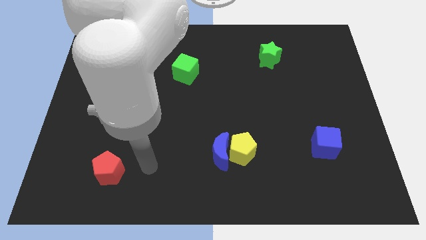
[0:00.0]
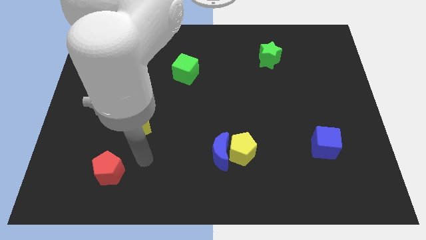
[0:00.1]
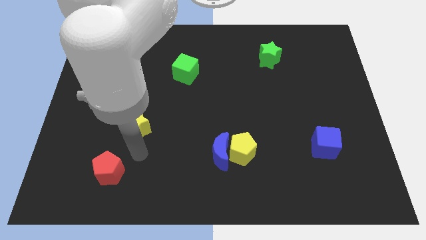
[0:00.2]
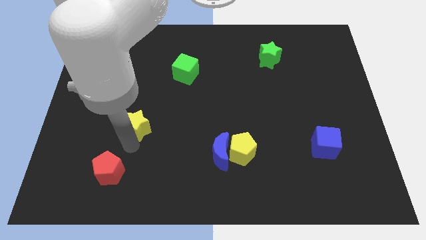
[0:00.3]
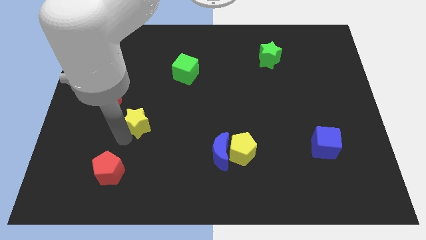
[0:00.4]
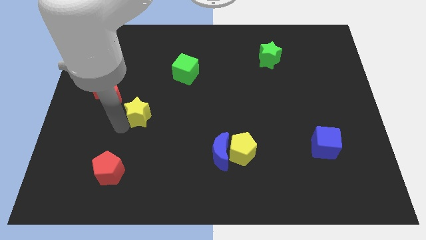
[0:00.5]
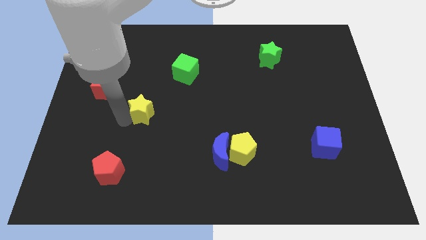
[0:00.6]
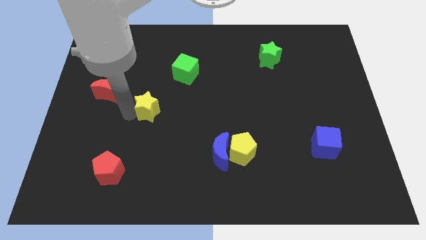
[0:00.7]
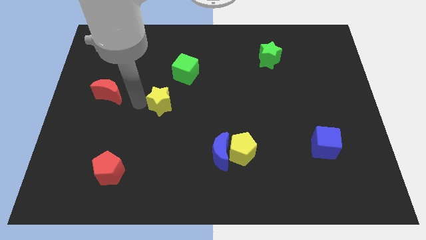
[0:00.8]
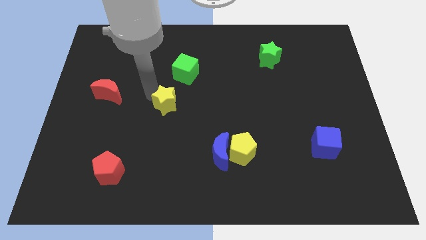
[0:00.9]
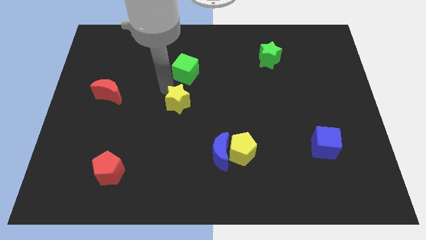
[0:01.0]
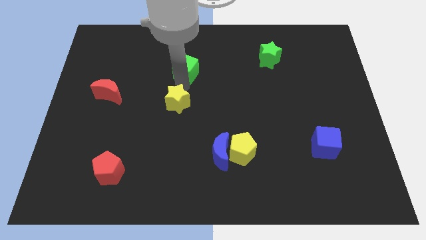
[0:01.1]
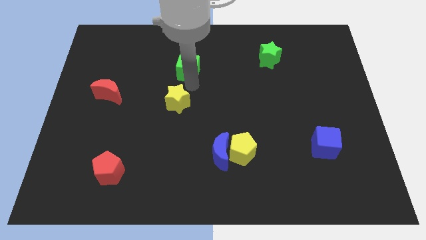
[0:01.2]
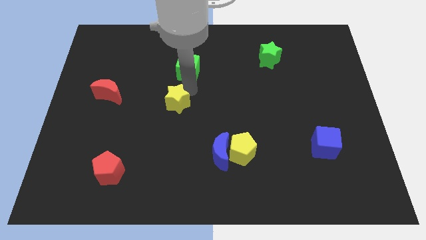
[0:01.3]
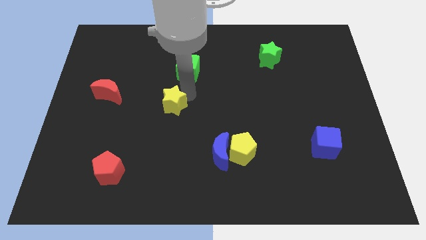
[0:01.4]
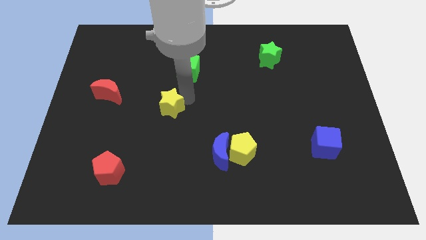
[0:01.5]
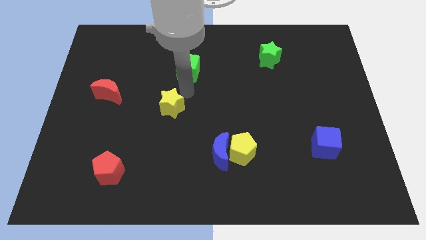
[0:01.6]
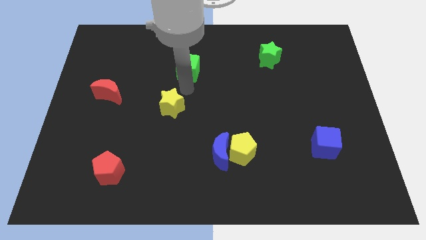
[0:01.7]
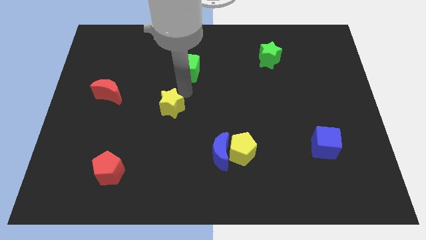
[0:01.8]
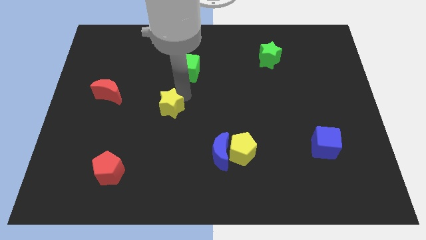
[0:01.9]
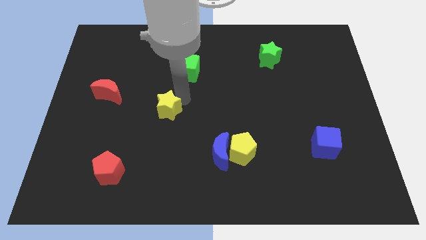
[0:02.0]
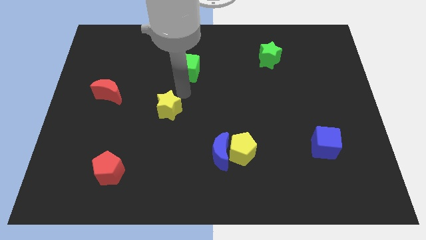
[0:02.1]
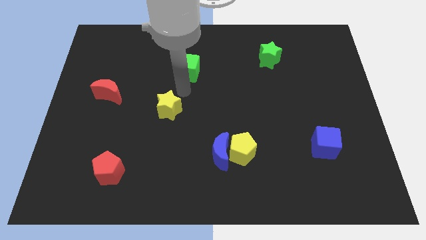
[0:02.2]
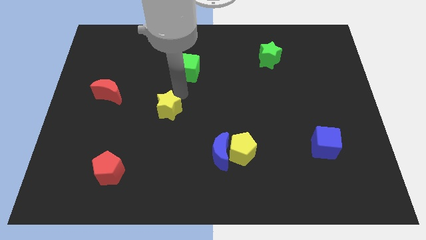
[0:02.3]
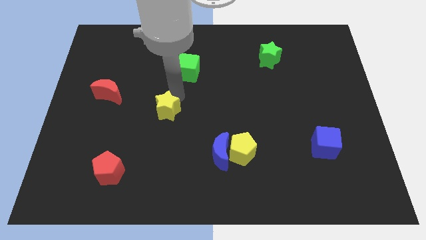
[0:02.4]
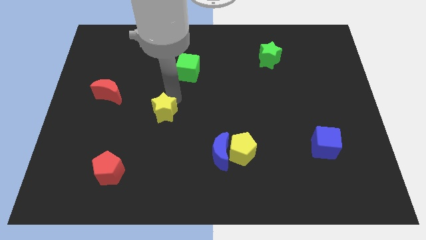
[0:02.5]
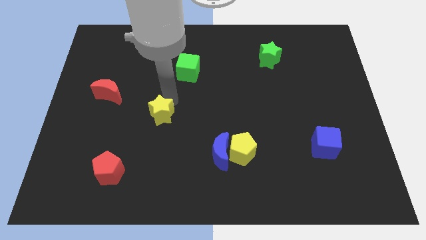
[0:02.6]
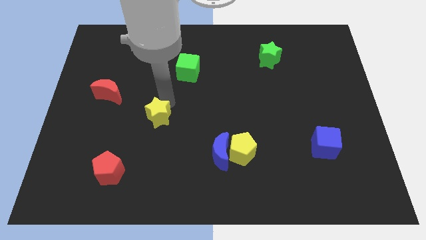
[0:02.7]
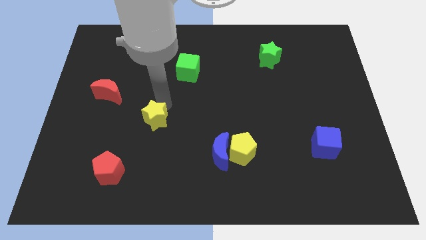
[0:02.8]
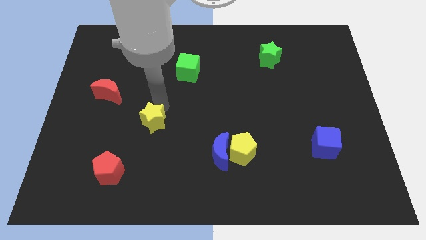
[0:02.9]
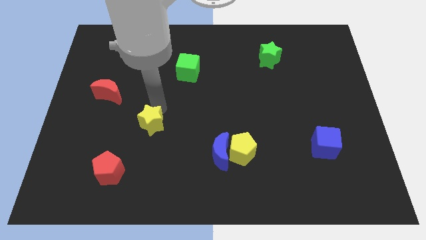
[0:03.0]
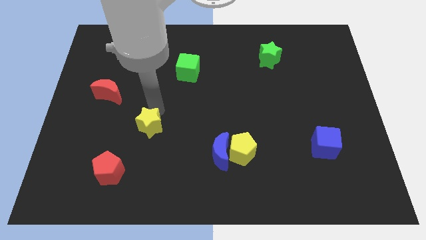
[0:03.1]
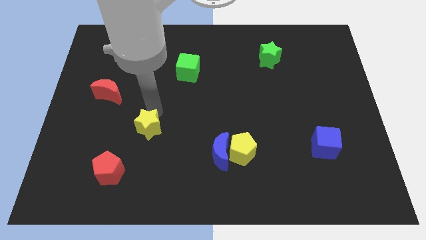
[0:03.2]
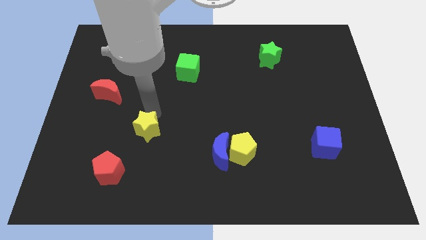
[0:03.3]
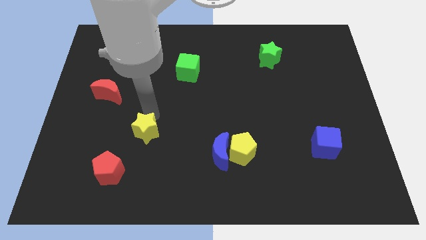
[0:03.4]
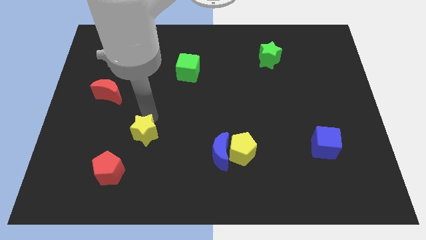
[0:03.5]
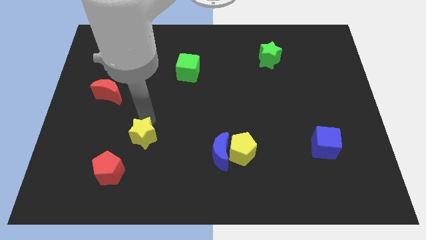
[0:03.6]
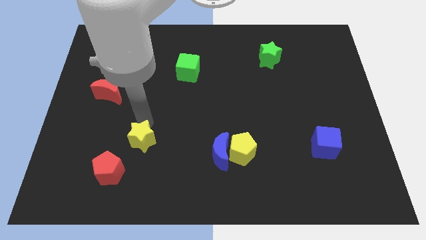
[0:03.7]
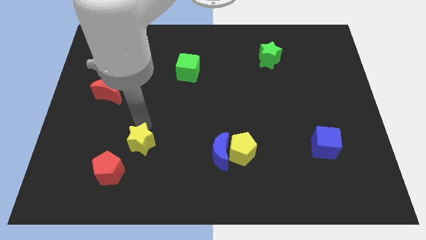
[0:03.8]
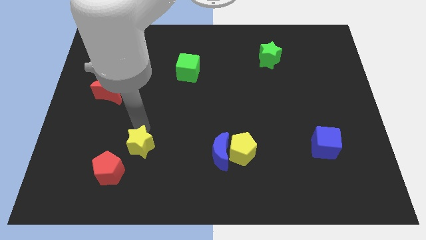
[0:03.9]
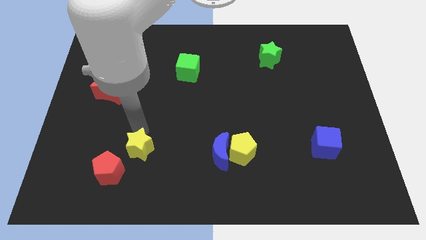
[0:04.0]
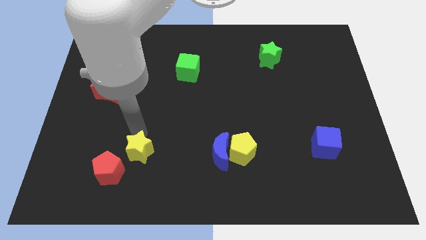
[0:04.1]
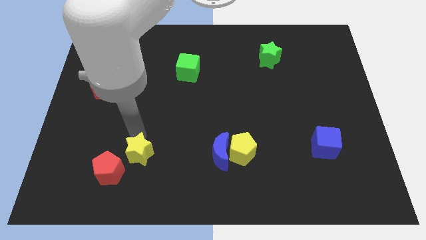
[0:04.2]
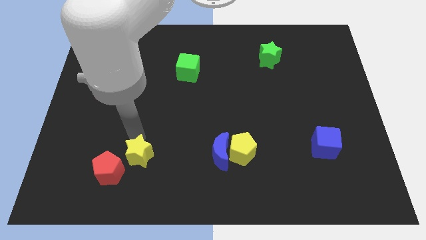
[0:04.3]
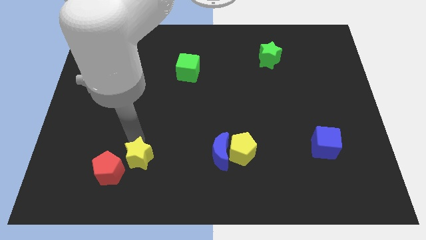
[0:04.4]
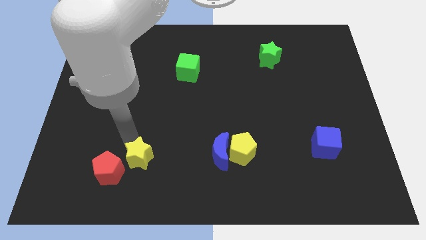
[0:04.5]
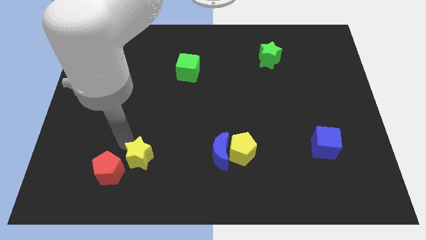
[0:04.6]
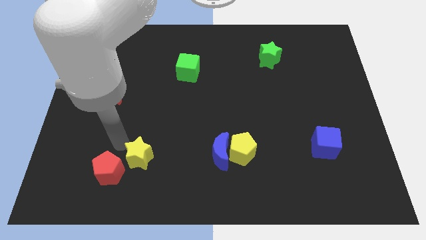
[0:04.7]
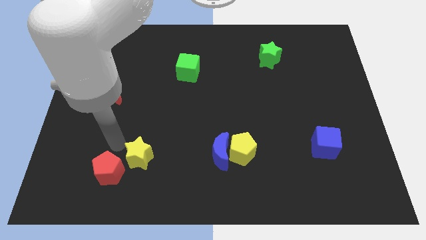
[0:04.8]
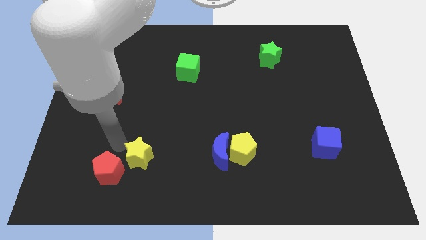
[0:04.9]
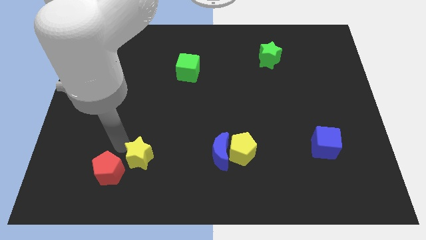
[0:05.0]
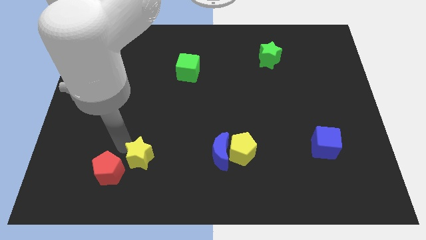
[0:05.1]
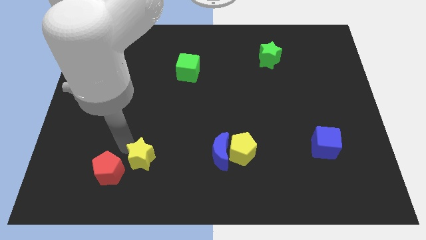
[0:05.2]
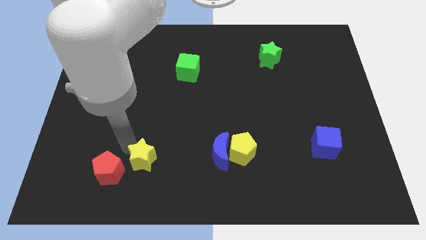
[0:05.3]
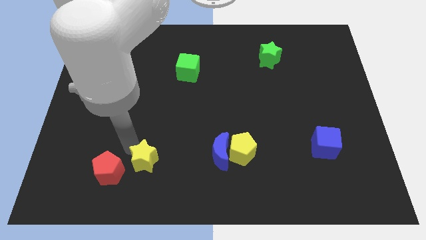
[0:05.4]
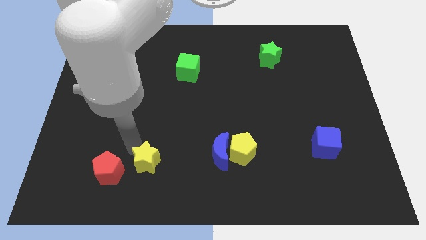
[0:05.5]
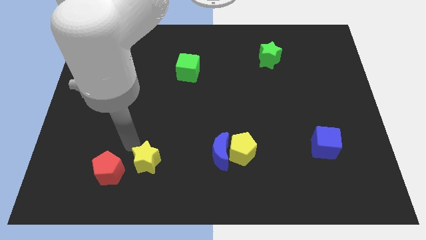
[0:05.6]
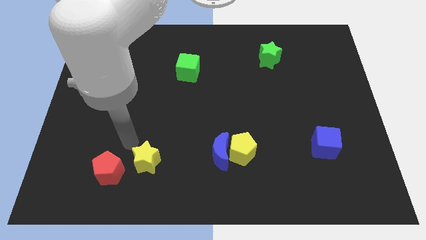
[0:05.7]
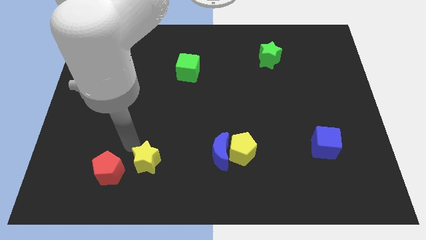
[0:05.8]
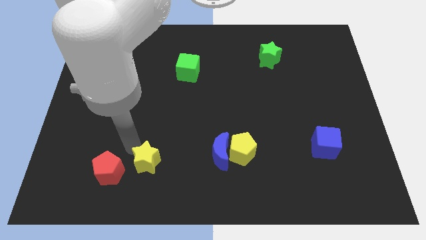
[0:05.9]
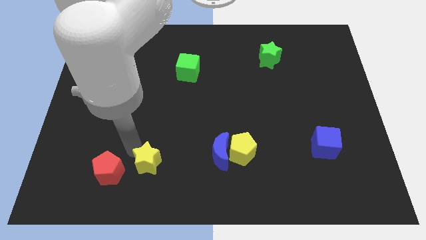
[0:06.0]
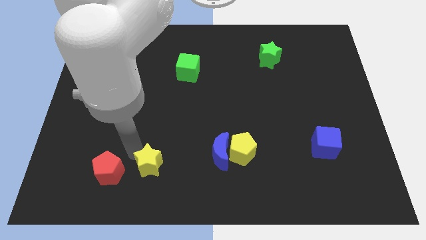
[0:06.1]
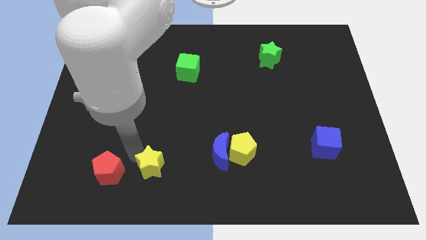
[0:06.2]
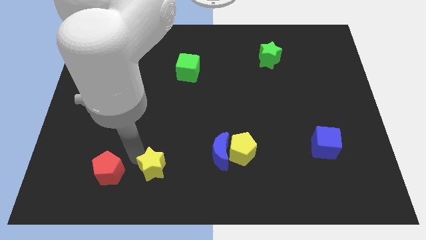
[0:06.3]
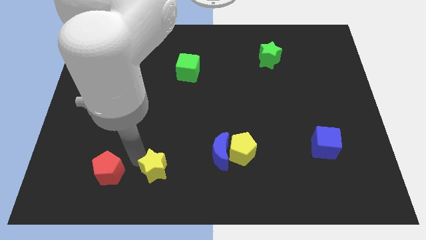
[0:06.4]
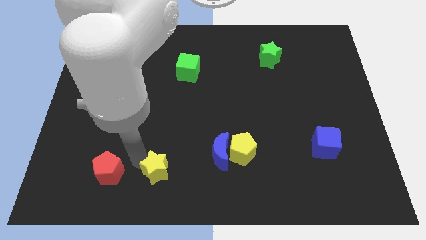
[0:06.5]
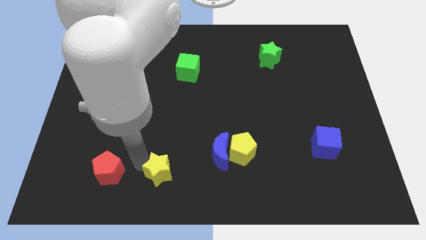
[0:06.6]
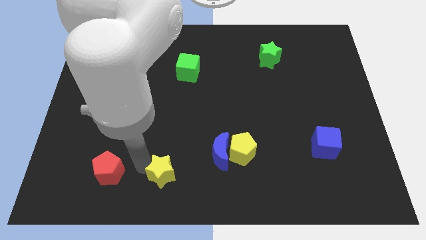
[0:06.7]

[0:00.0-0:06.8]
push the yellow star to the bottom side

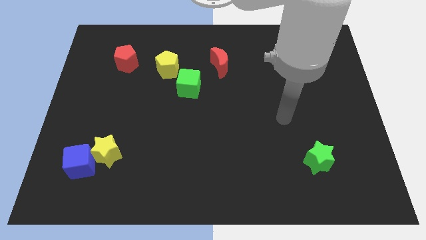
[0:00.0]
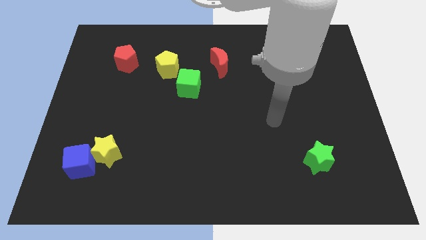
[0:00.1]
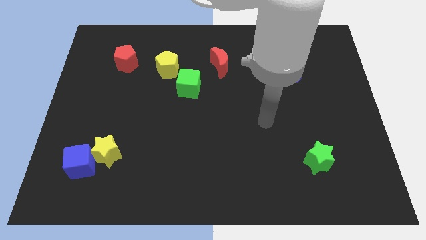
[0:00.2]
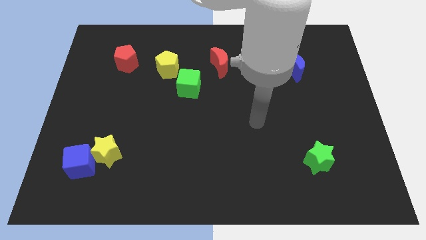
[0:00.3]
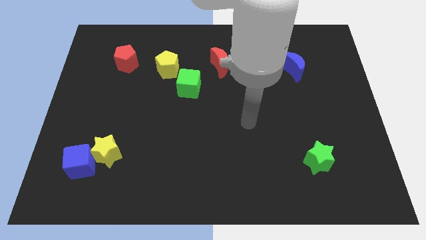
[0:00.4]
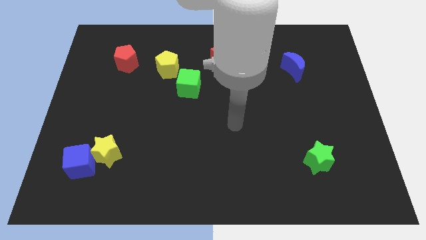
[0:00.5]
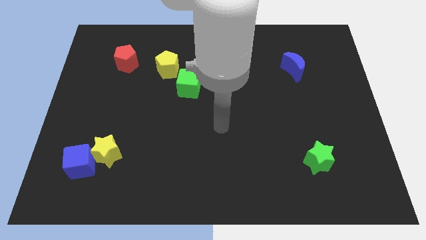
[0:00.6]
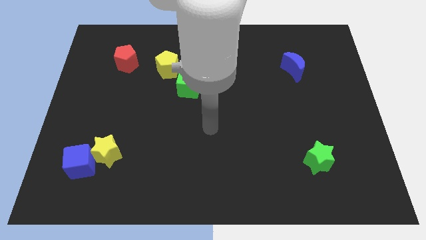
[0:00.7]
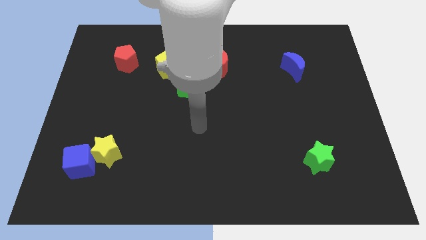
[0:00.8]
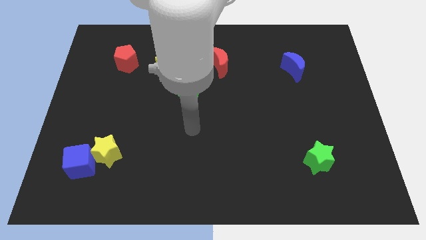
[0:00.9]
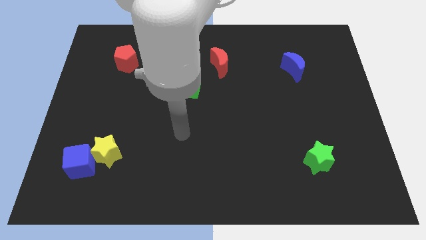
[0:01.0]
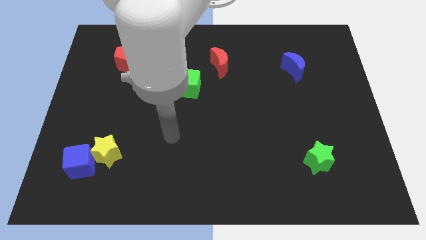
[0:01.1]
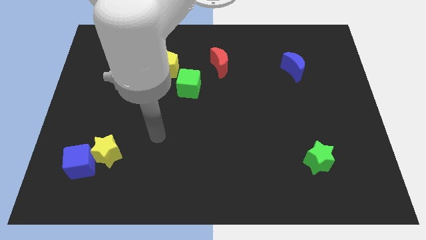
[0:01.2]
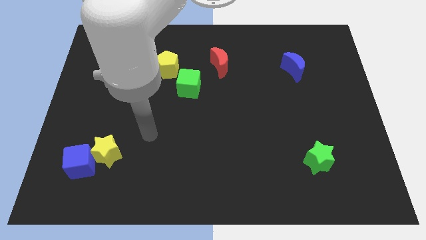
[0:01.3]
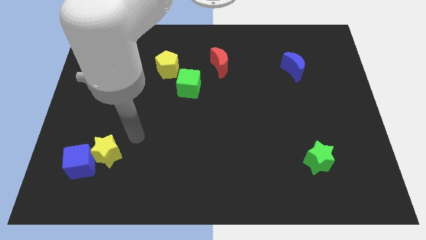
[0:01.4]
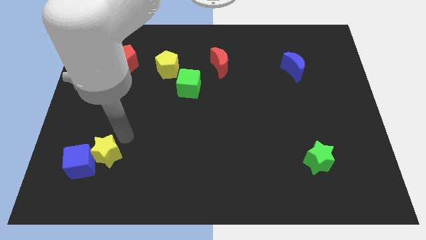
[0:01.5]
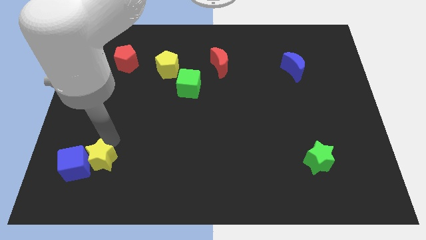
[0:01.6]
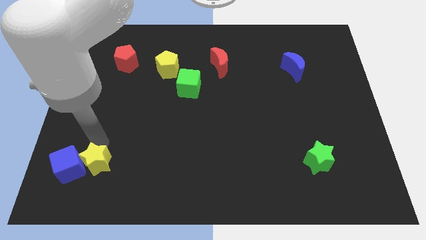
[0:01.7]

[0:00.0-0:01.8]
move the blue cube to the bottom left corner
